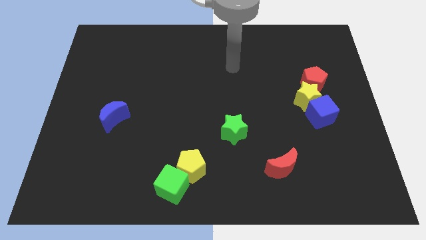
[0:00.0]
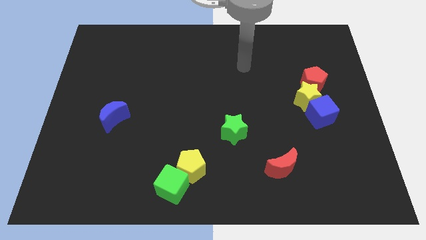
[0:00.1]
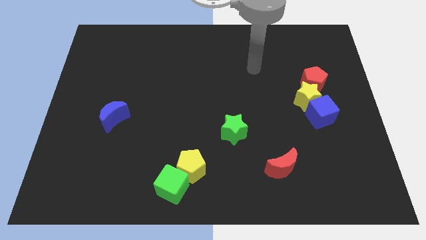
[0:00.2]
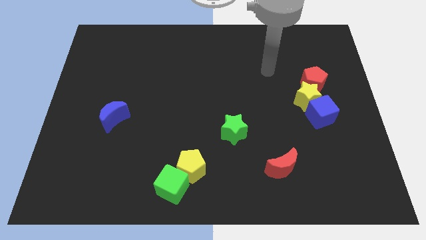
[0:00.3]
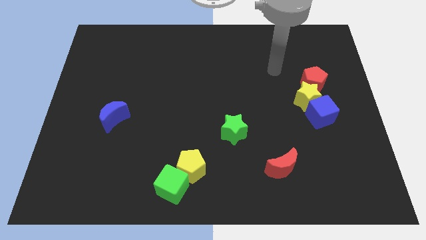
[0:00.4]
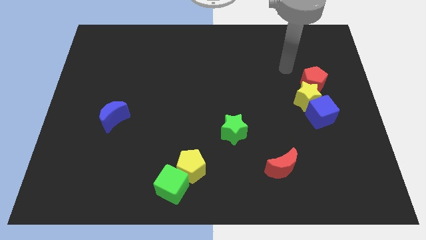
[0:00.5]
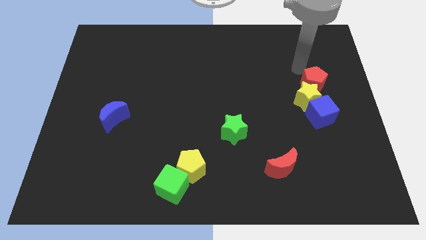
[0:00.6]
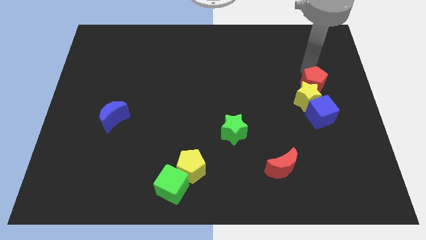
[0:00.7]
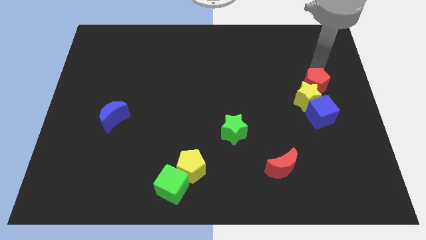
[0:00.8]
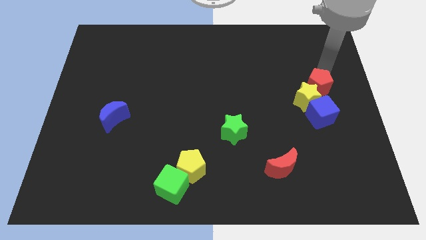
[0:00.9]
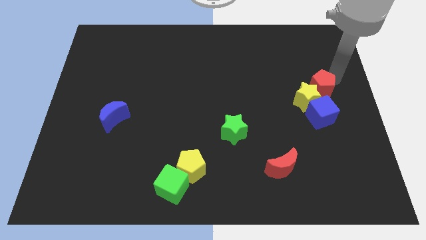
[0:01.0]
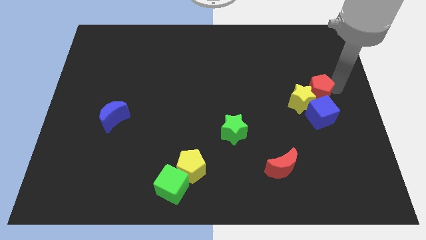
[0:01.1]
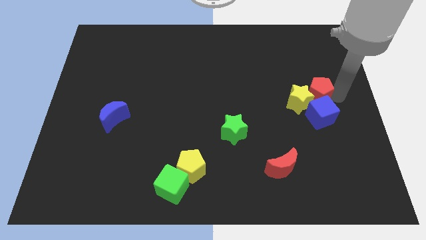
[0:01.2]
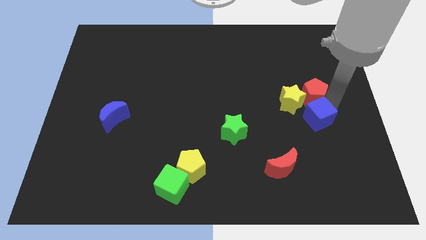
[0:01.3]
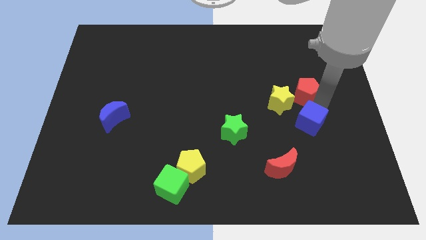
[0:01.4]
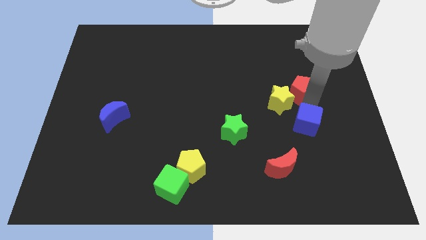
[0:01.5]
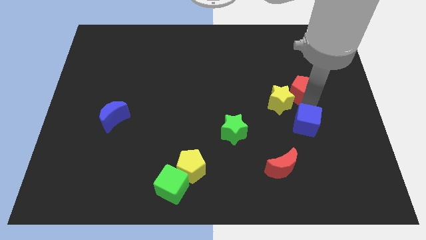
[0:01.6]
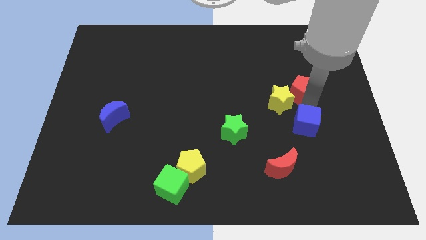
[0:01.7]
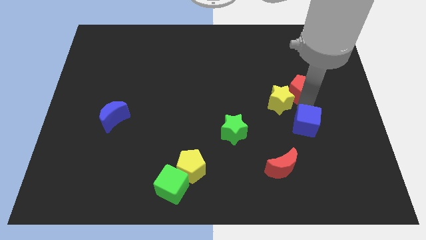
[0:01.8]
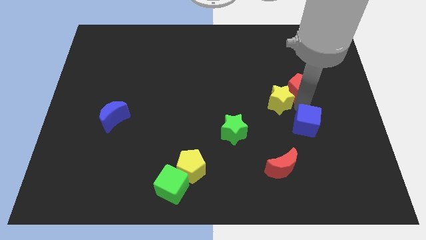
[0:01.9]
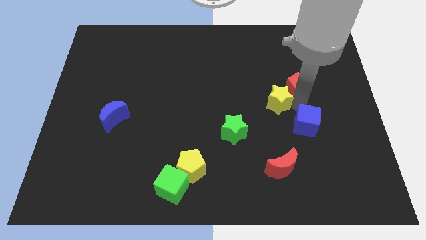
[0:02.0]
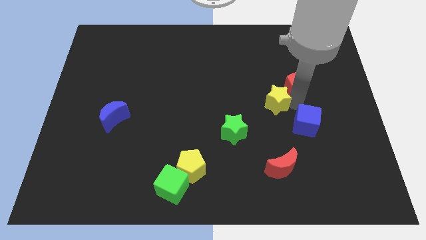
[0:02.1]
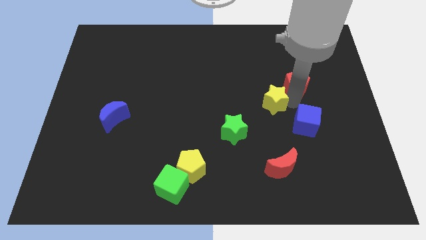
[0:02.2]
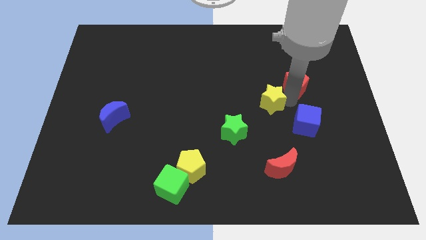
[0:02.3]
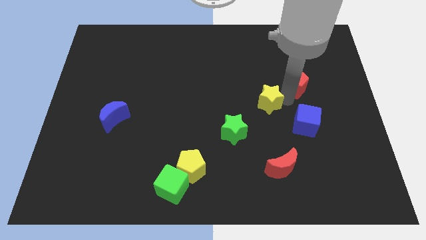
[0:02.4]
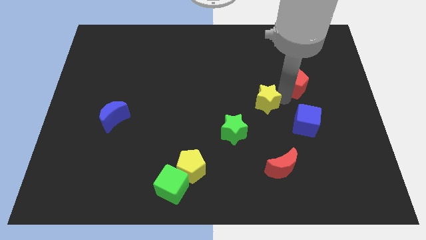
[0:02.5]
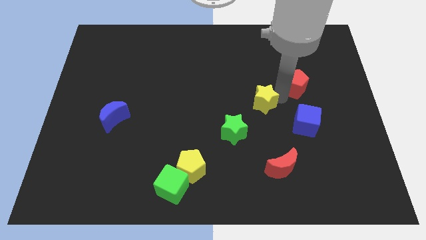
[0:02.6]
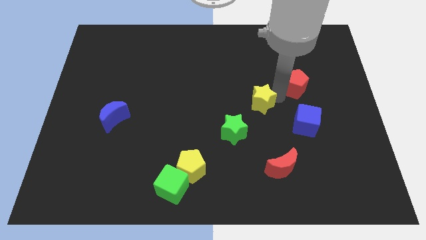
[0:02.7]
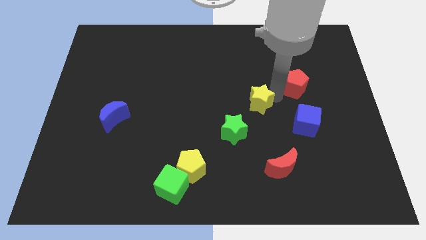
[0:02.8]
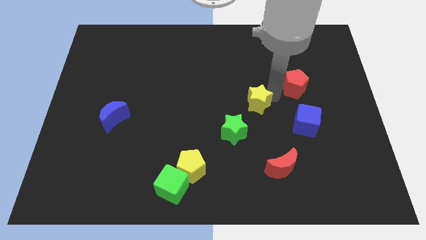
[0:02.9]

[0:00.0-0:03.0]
move the yellow star away from the red pentagon and blue cube

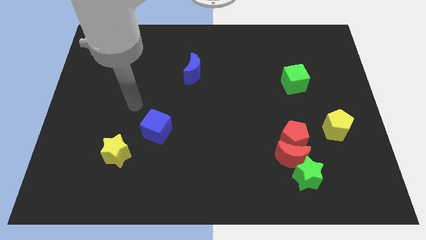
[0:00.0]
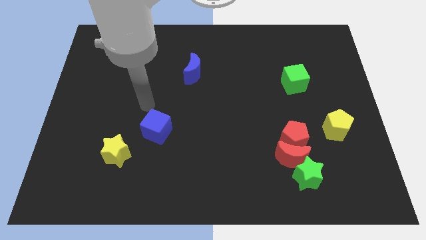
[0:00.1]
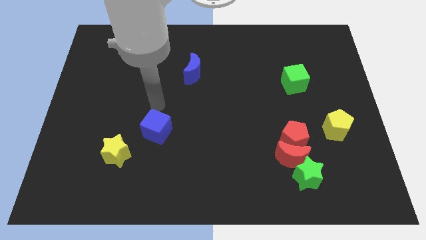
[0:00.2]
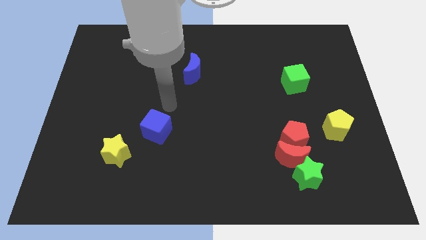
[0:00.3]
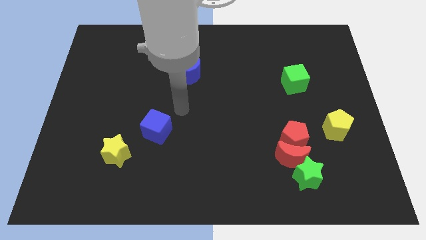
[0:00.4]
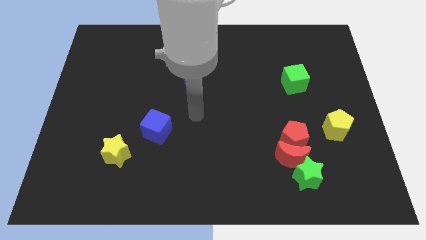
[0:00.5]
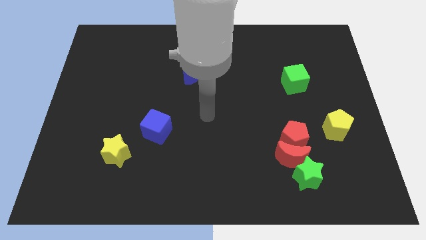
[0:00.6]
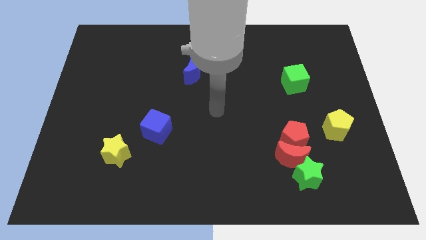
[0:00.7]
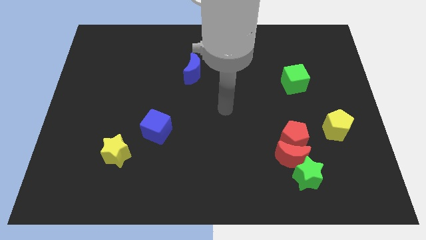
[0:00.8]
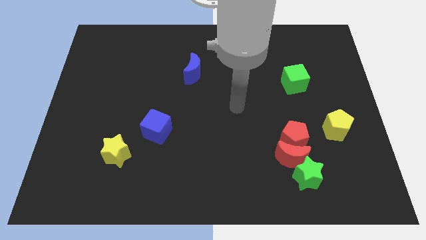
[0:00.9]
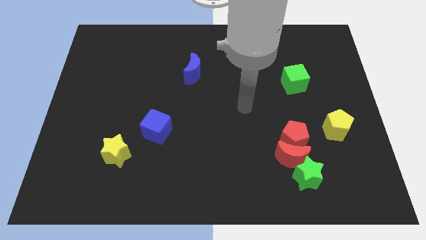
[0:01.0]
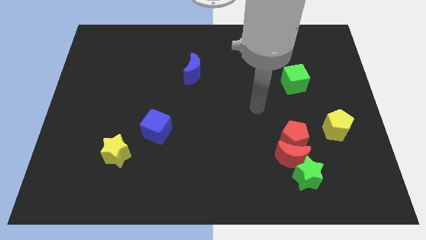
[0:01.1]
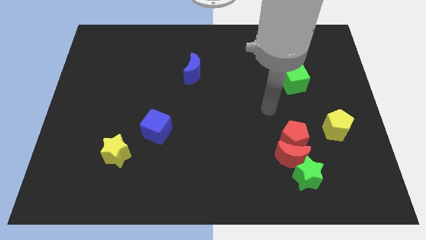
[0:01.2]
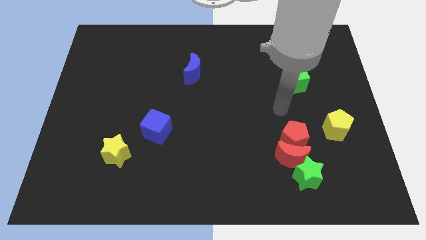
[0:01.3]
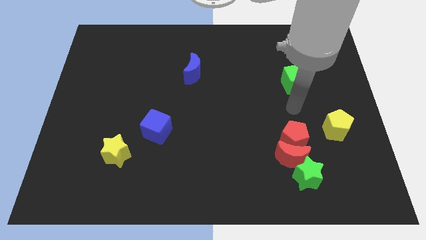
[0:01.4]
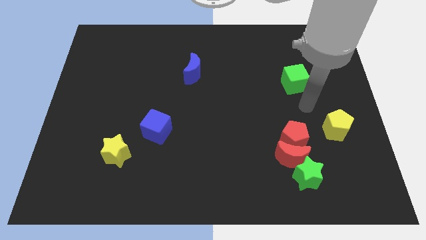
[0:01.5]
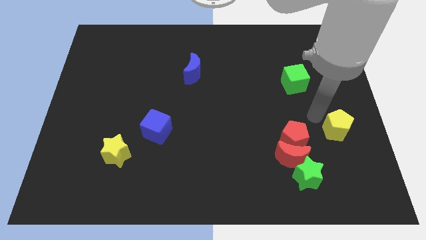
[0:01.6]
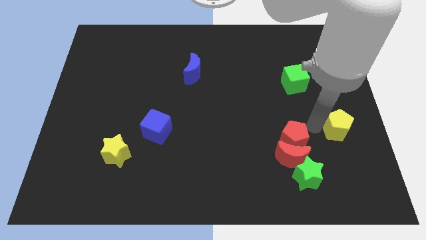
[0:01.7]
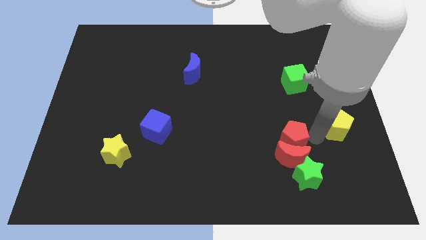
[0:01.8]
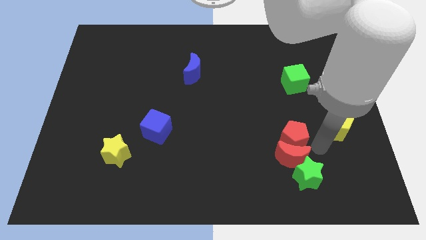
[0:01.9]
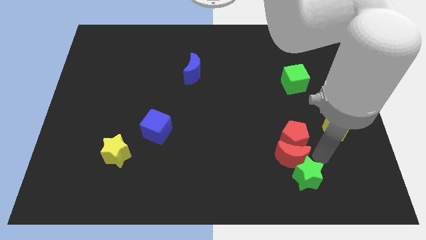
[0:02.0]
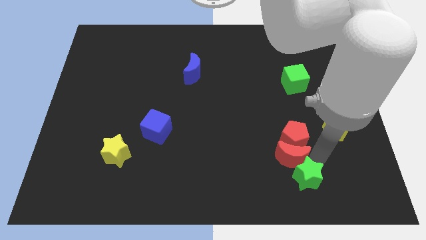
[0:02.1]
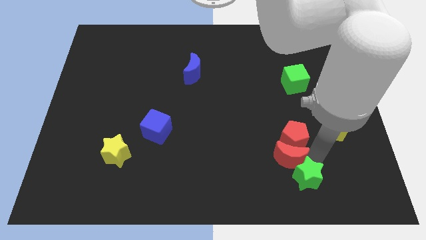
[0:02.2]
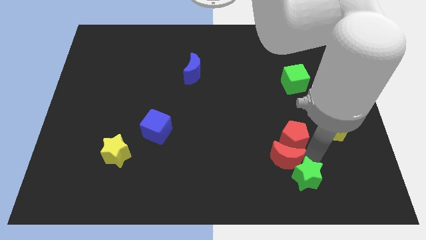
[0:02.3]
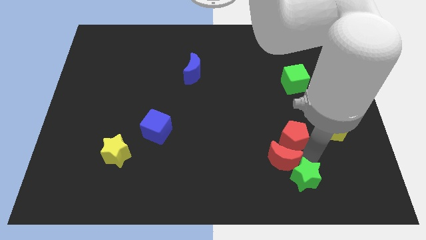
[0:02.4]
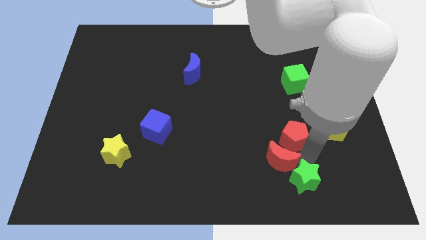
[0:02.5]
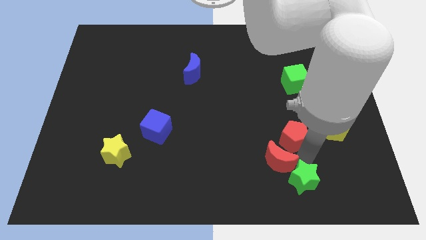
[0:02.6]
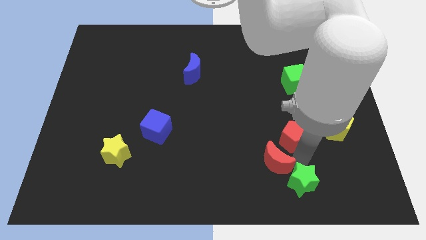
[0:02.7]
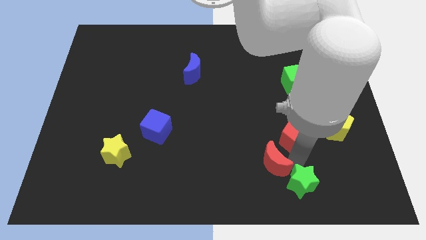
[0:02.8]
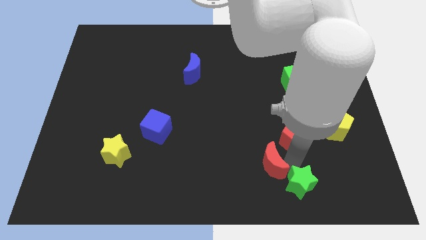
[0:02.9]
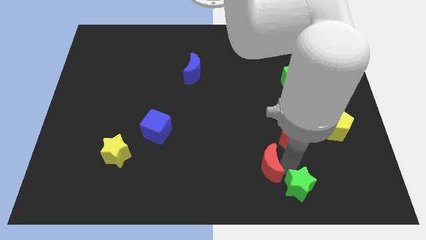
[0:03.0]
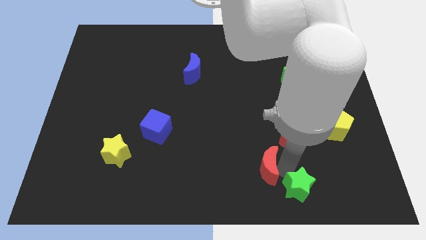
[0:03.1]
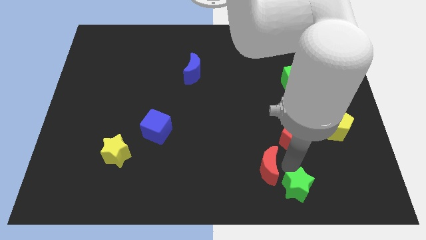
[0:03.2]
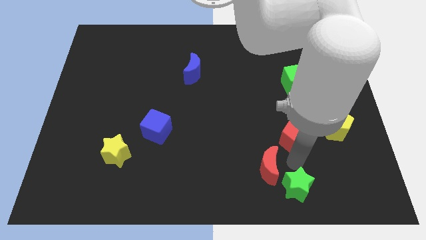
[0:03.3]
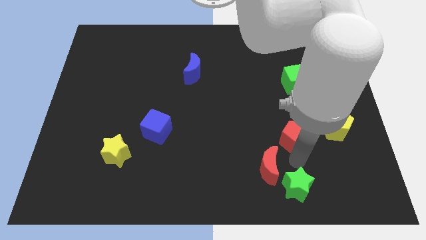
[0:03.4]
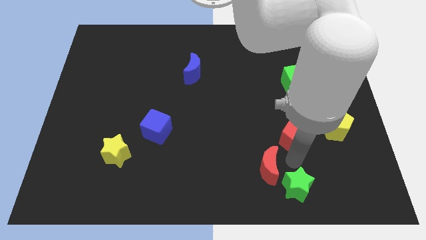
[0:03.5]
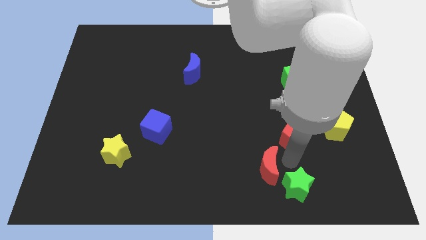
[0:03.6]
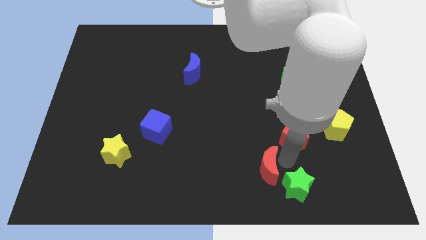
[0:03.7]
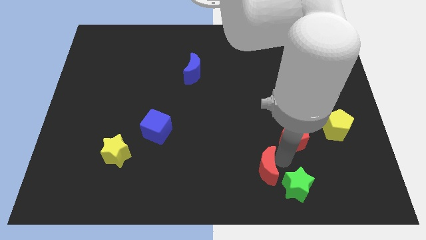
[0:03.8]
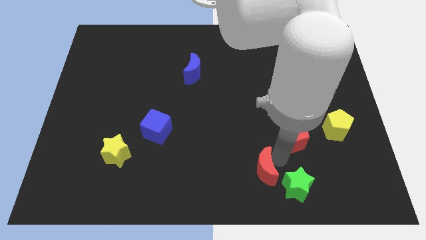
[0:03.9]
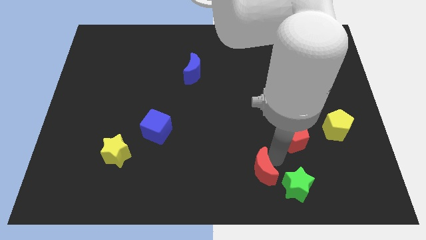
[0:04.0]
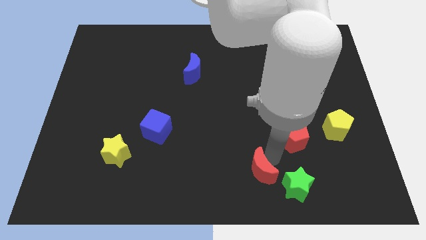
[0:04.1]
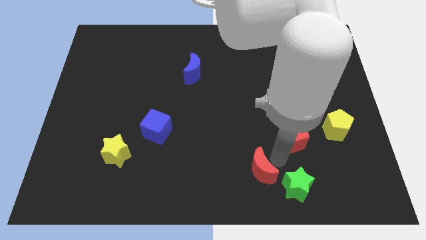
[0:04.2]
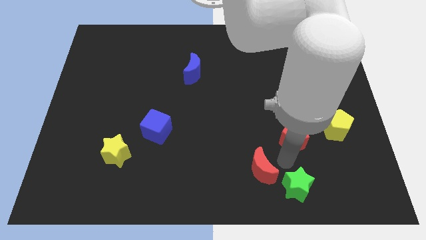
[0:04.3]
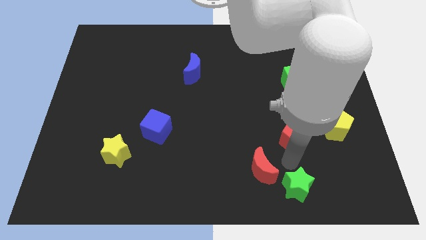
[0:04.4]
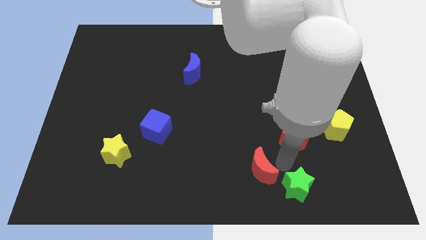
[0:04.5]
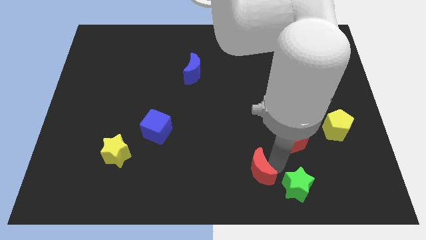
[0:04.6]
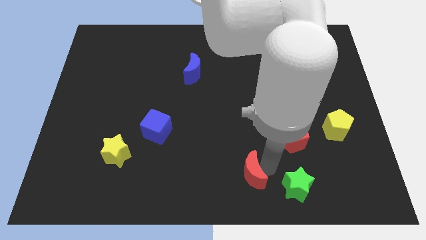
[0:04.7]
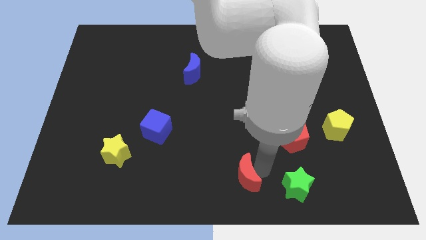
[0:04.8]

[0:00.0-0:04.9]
move the red moon away from the green star and red pentagon

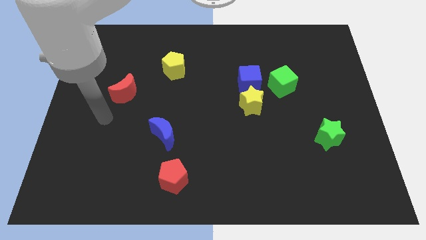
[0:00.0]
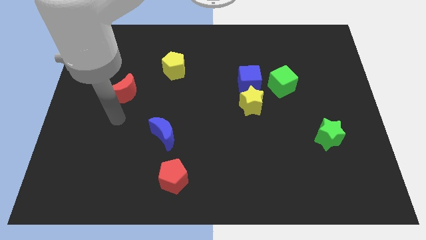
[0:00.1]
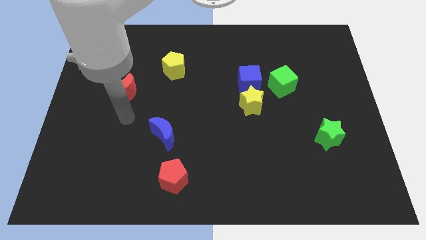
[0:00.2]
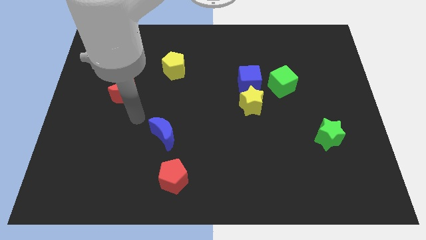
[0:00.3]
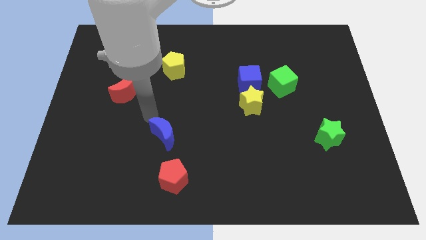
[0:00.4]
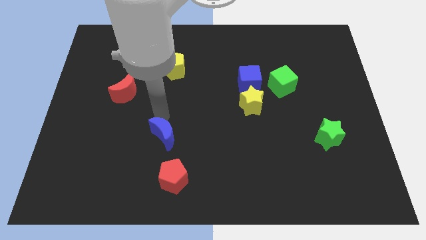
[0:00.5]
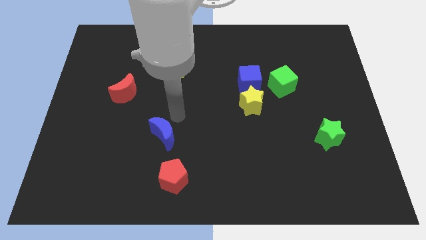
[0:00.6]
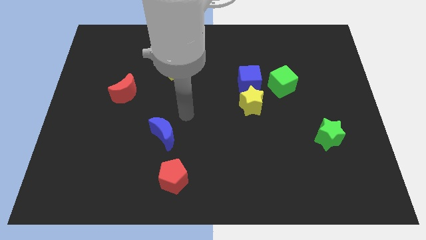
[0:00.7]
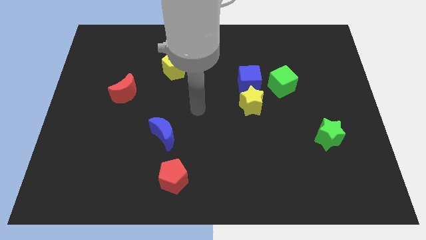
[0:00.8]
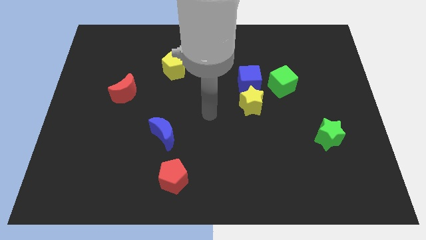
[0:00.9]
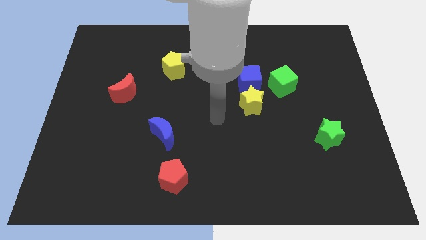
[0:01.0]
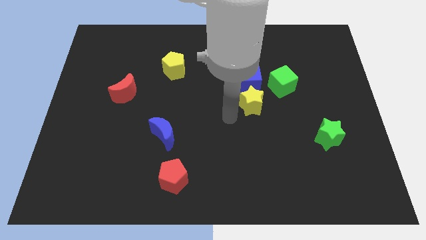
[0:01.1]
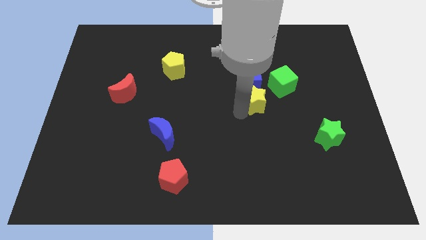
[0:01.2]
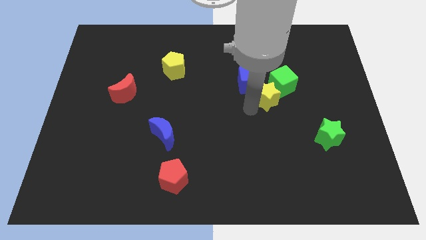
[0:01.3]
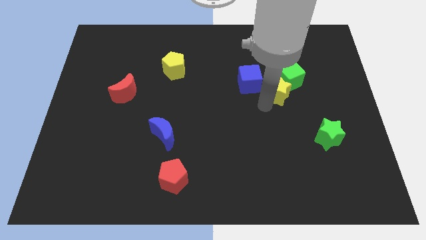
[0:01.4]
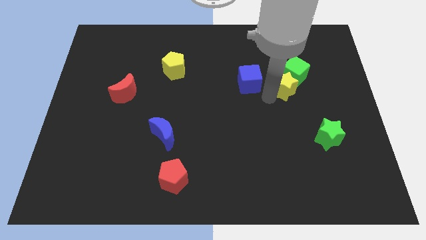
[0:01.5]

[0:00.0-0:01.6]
separate the blue cube from the yellow star and green cube
